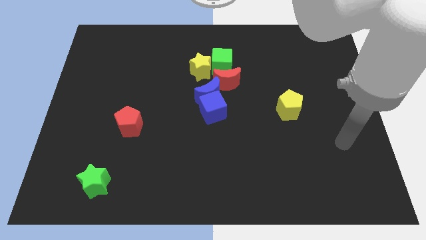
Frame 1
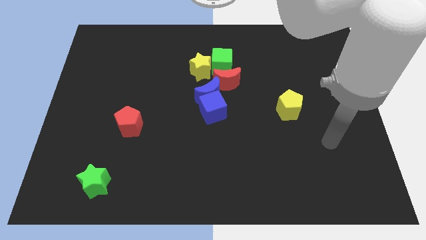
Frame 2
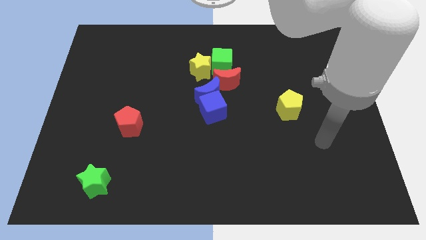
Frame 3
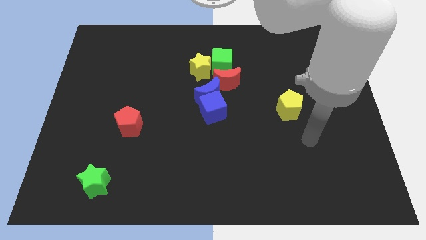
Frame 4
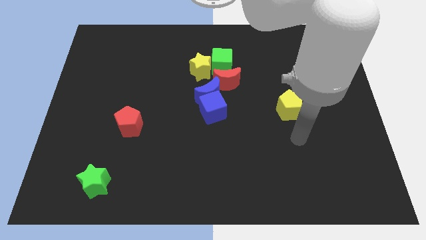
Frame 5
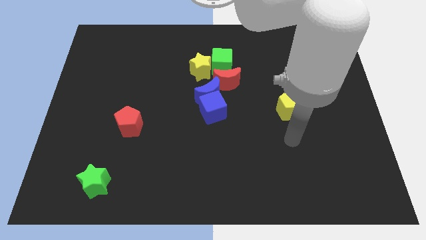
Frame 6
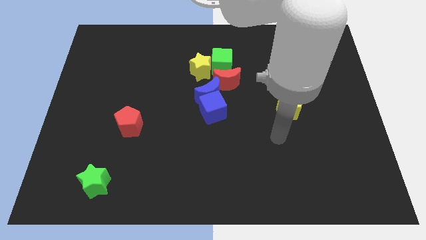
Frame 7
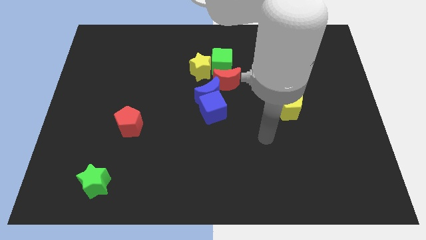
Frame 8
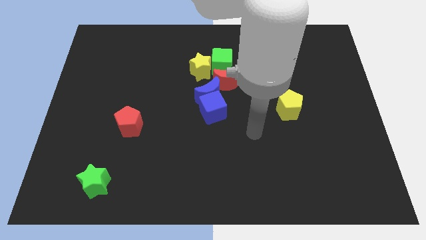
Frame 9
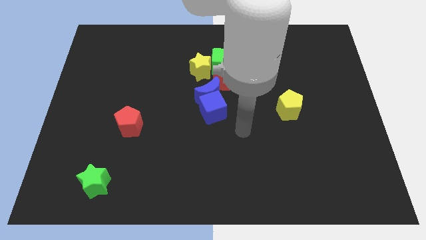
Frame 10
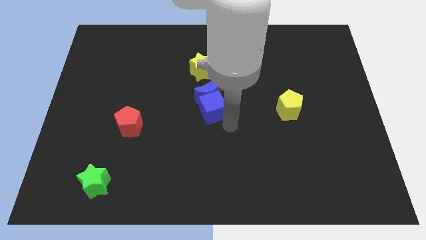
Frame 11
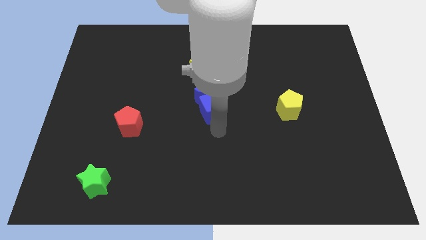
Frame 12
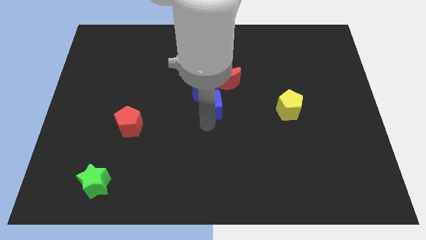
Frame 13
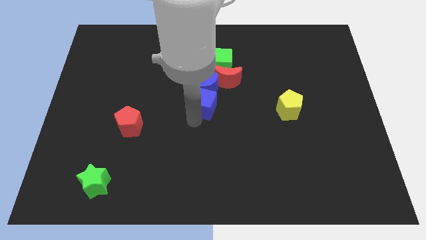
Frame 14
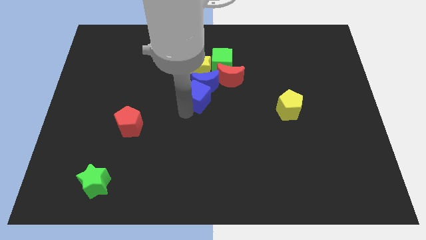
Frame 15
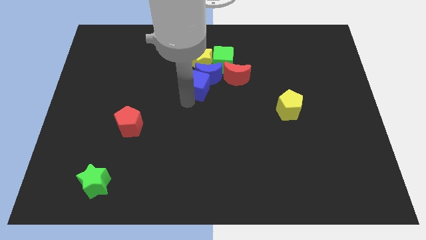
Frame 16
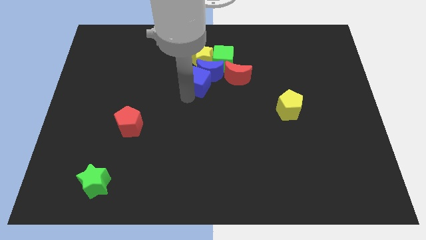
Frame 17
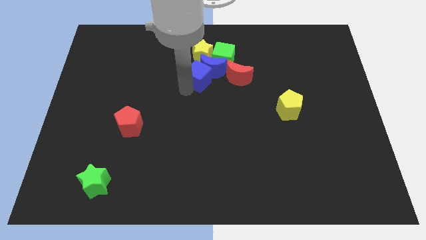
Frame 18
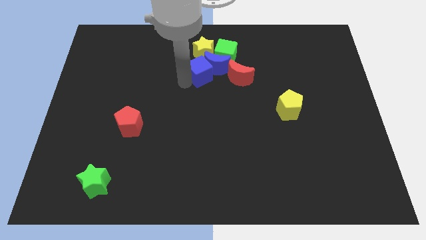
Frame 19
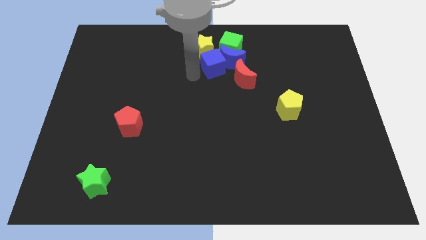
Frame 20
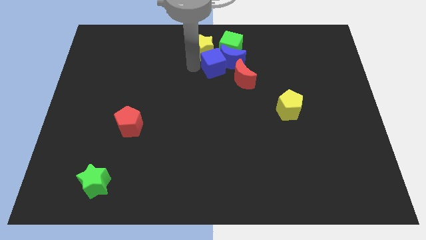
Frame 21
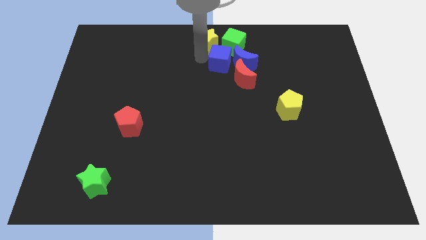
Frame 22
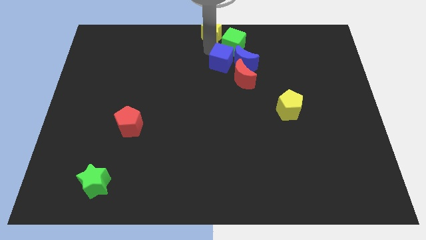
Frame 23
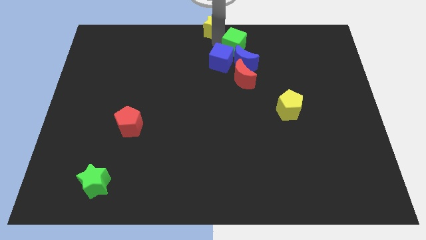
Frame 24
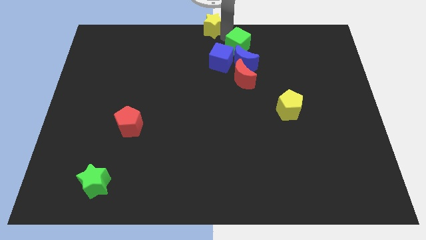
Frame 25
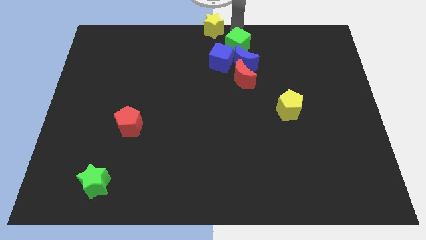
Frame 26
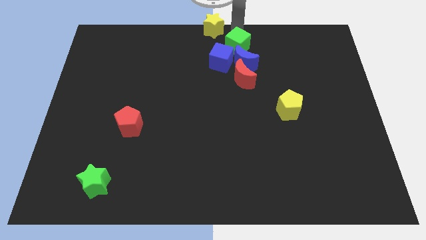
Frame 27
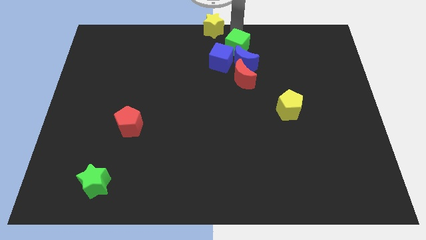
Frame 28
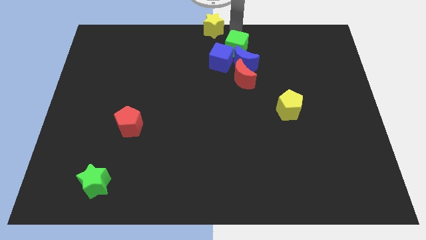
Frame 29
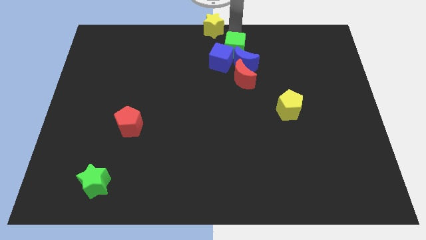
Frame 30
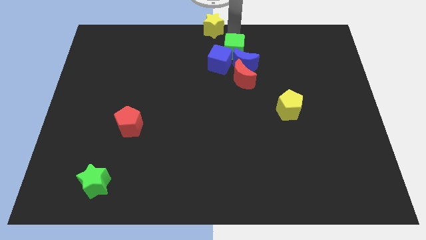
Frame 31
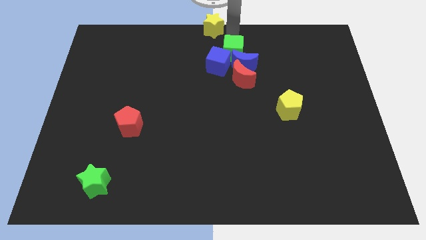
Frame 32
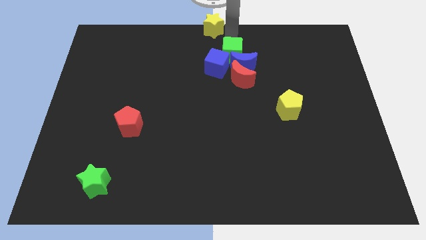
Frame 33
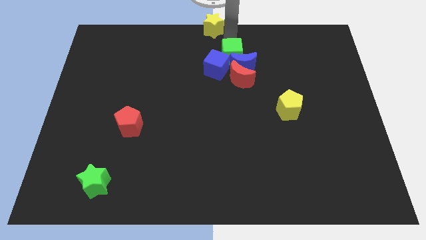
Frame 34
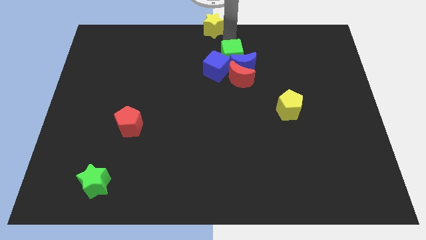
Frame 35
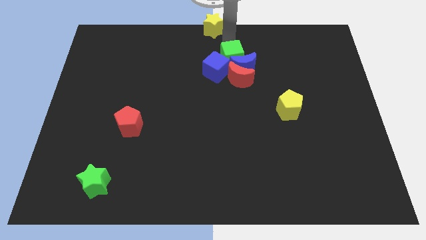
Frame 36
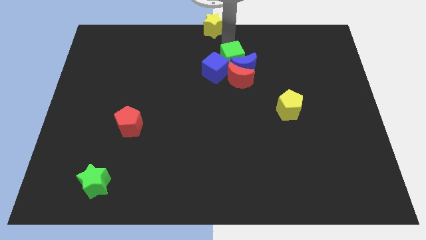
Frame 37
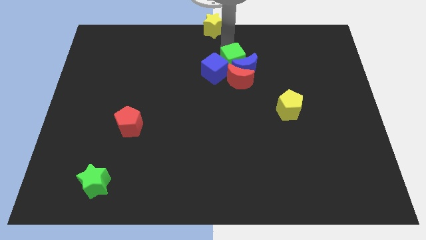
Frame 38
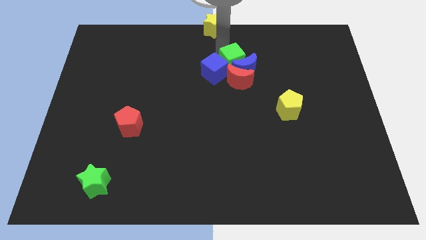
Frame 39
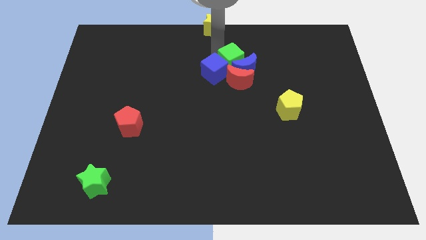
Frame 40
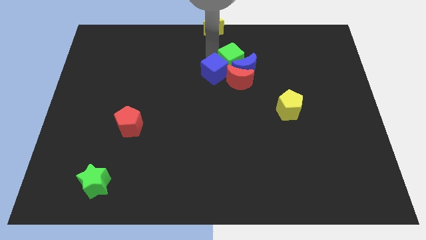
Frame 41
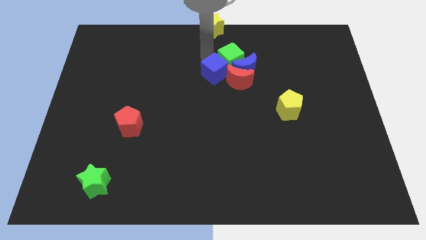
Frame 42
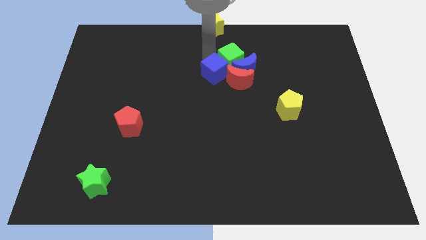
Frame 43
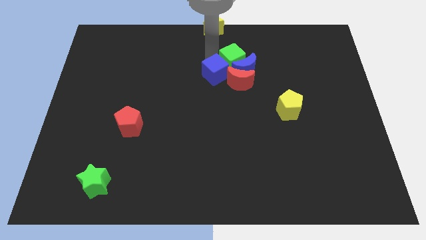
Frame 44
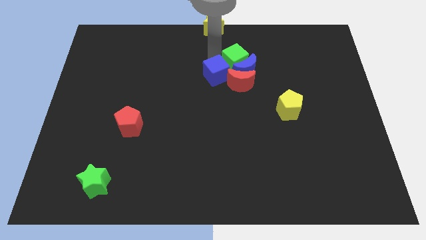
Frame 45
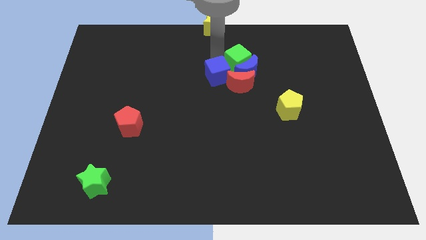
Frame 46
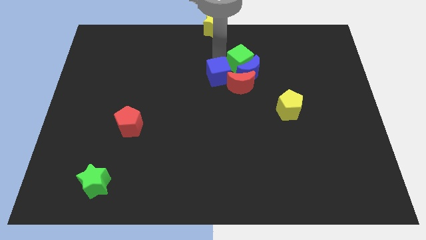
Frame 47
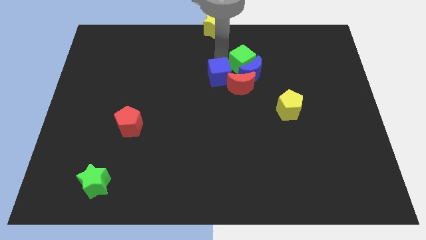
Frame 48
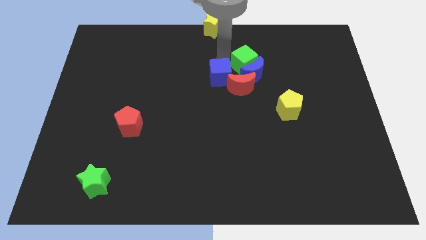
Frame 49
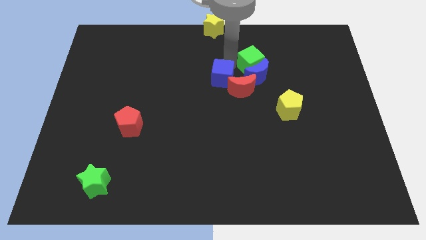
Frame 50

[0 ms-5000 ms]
move the green cube somewhat to the right

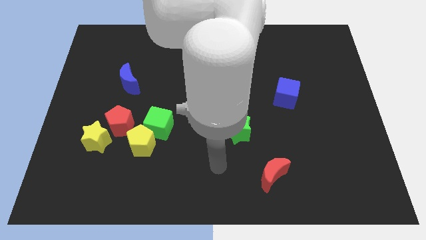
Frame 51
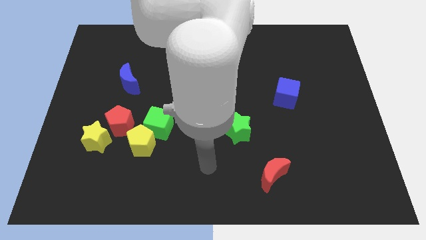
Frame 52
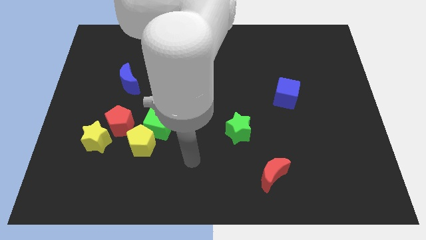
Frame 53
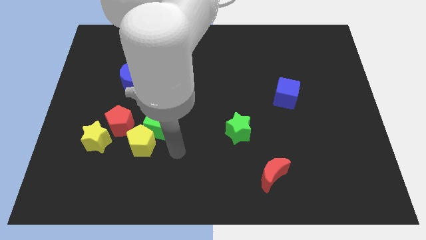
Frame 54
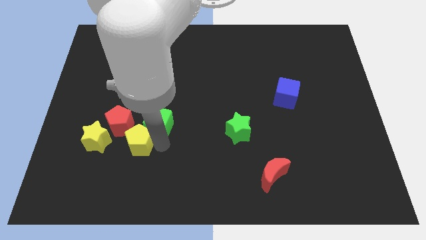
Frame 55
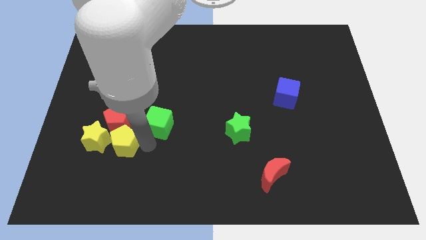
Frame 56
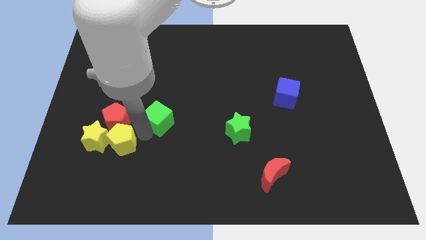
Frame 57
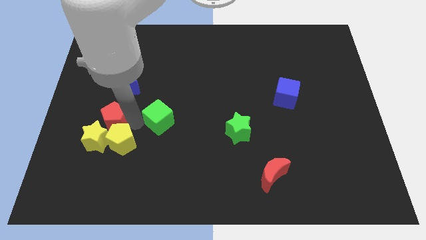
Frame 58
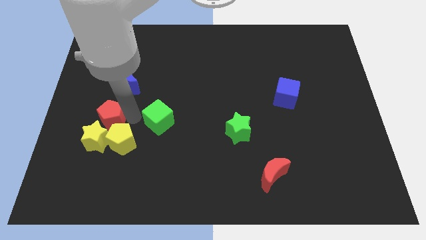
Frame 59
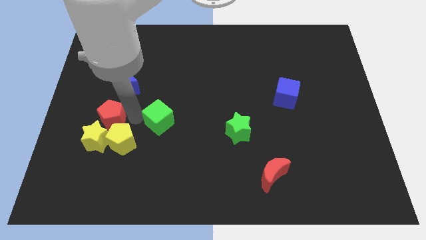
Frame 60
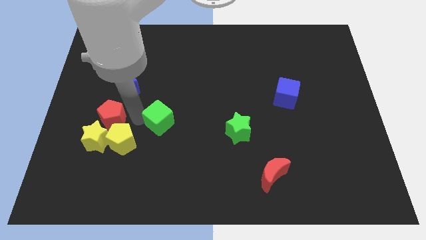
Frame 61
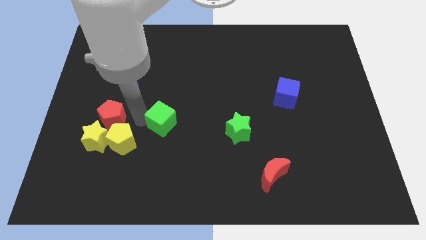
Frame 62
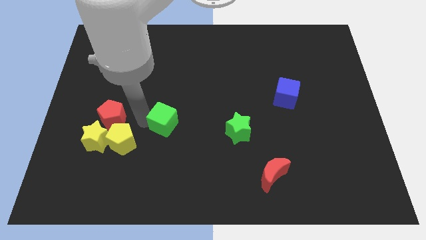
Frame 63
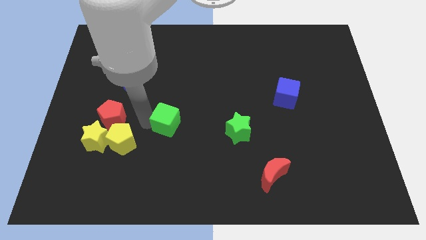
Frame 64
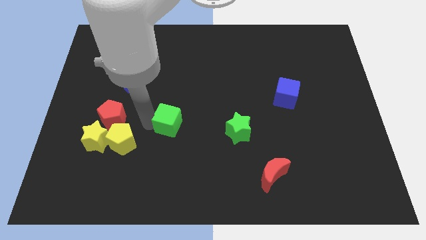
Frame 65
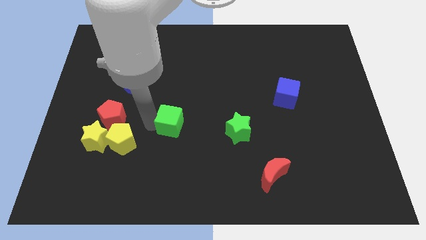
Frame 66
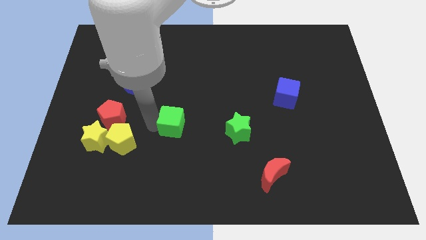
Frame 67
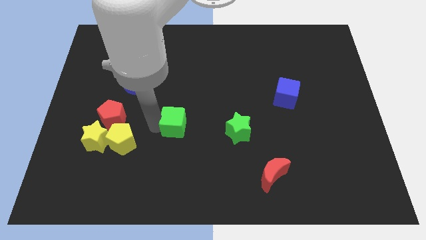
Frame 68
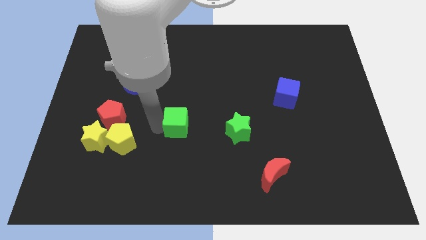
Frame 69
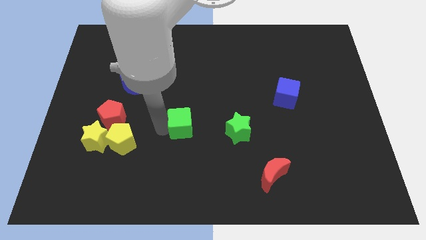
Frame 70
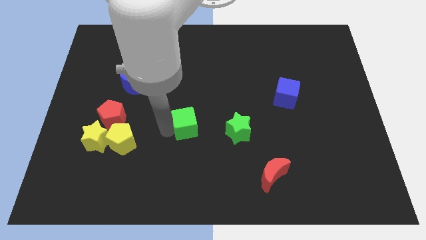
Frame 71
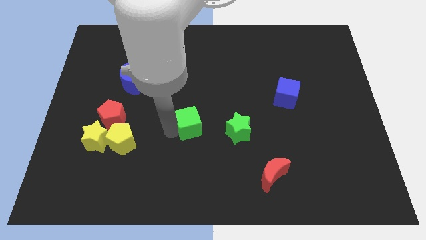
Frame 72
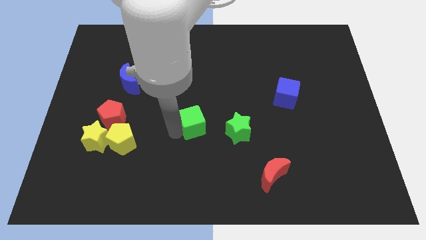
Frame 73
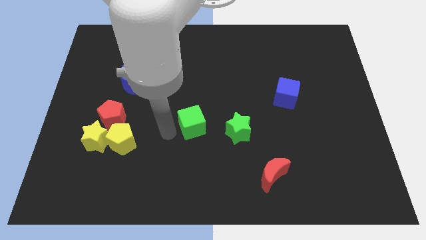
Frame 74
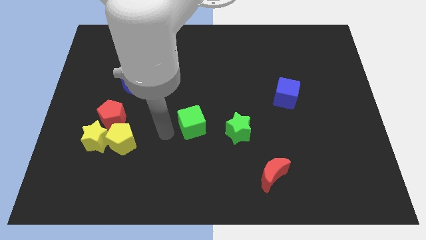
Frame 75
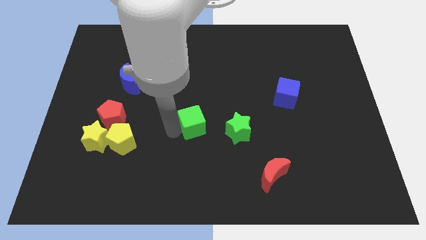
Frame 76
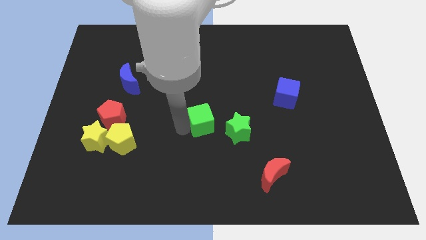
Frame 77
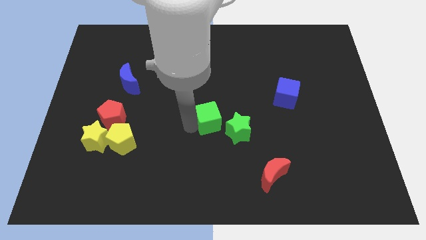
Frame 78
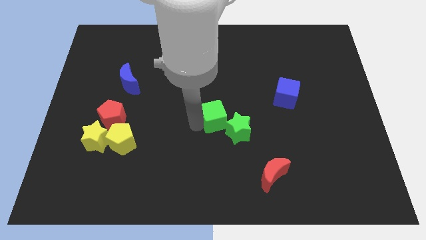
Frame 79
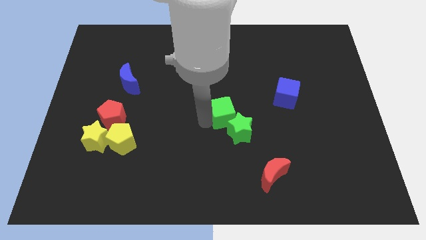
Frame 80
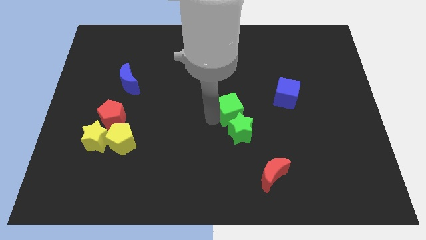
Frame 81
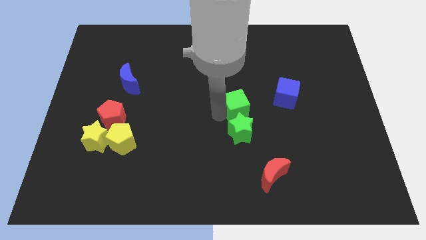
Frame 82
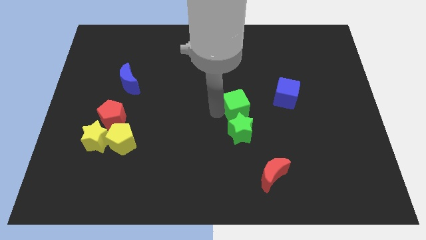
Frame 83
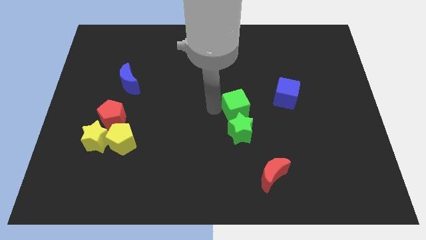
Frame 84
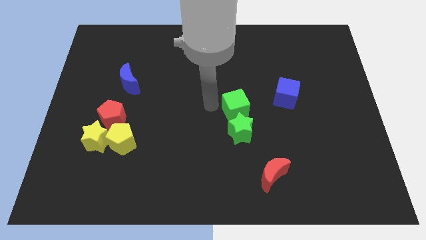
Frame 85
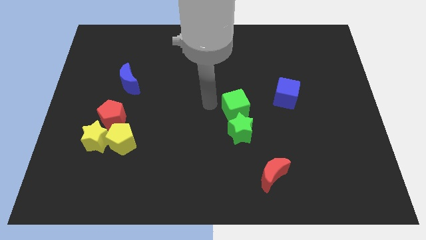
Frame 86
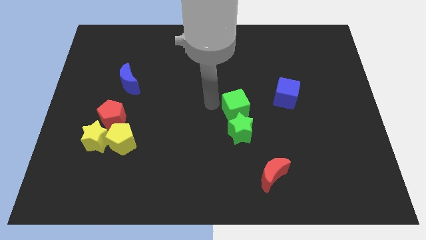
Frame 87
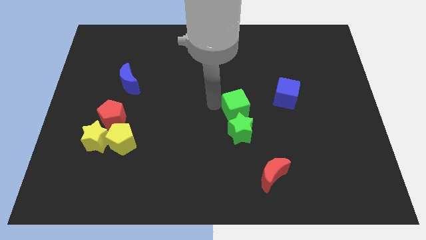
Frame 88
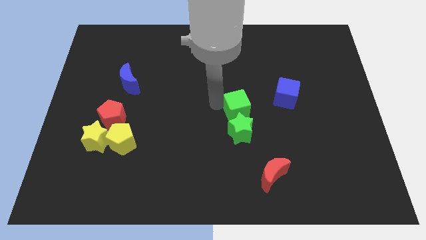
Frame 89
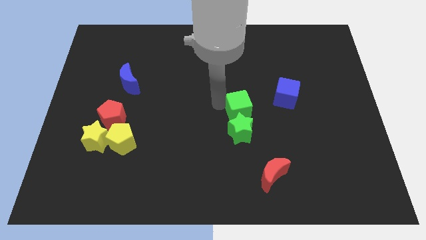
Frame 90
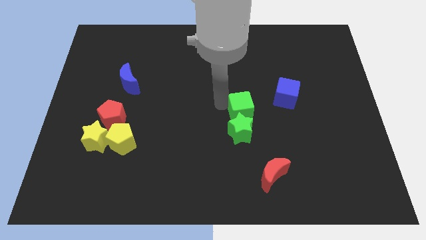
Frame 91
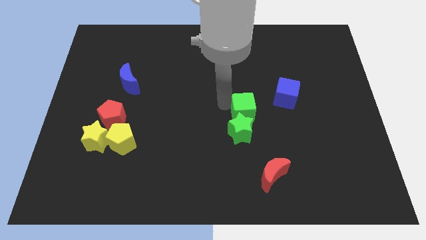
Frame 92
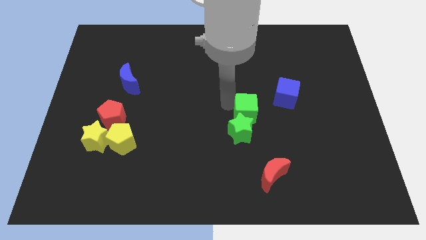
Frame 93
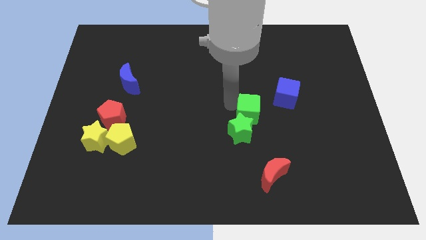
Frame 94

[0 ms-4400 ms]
push the green cube right
